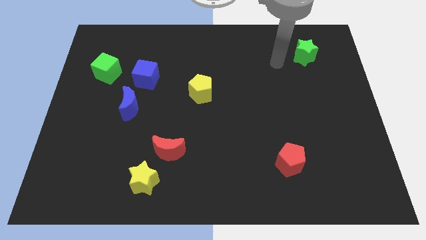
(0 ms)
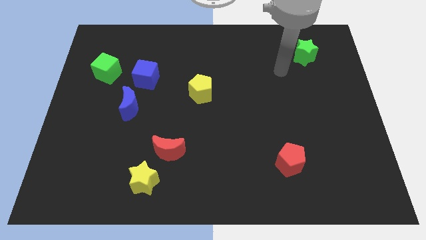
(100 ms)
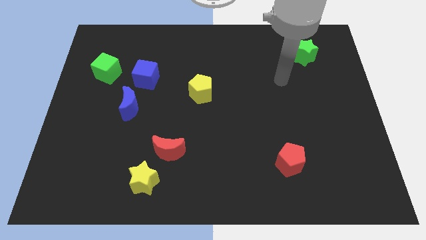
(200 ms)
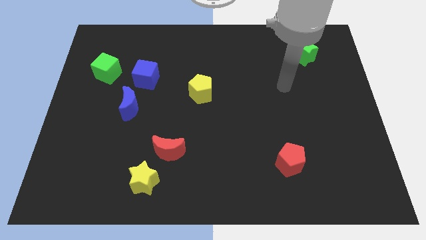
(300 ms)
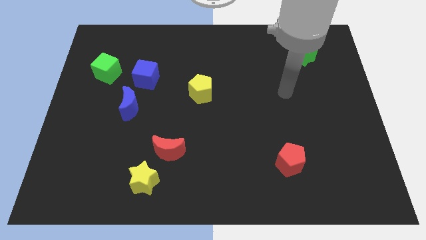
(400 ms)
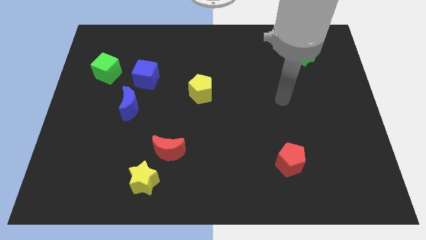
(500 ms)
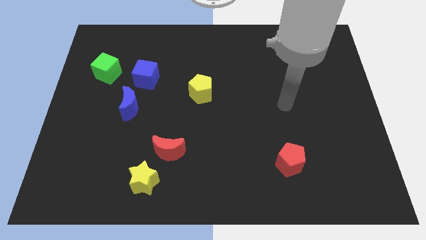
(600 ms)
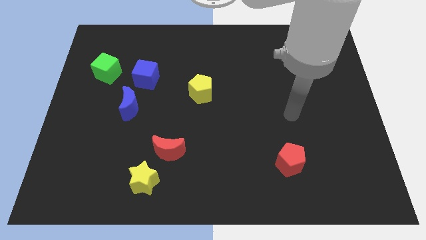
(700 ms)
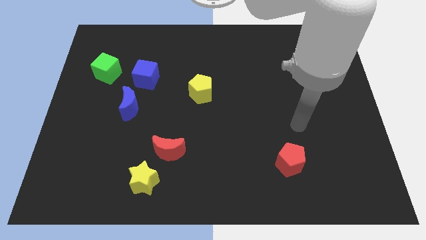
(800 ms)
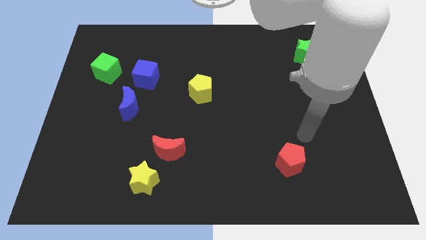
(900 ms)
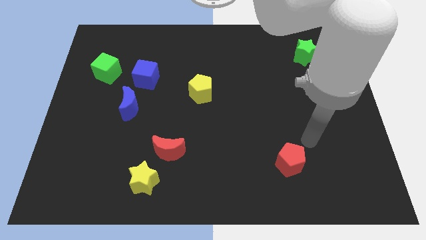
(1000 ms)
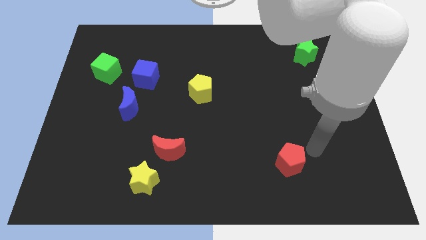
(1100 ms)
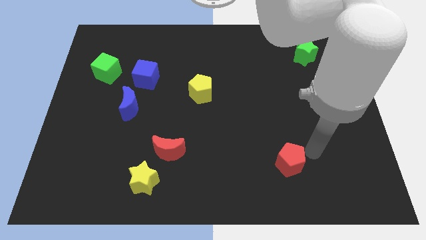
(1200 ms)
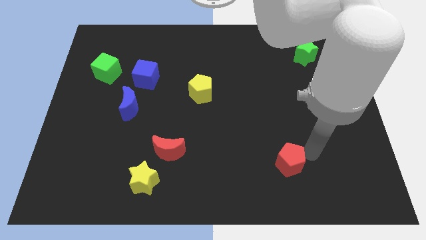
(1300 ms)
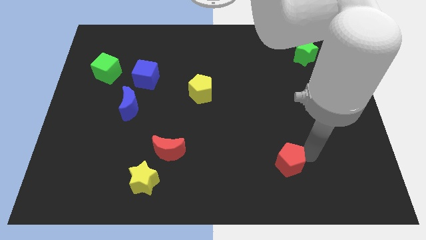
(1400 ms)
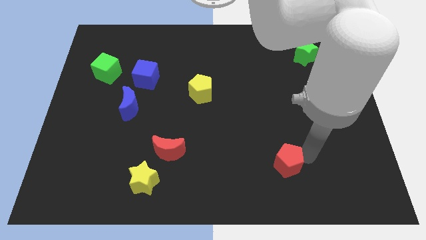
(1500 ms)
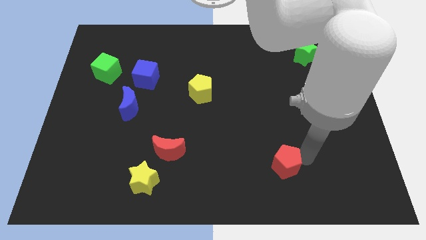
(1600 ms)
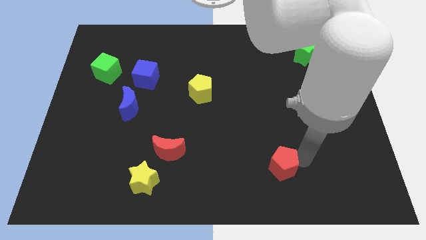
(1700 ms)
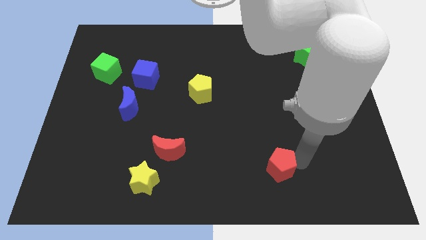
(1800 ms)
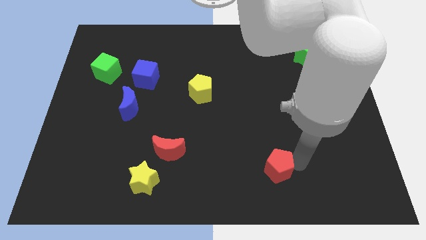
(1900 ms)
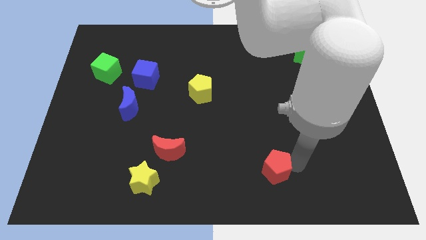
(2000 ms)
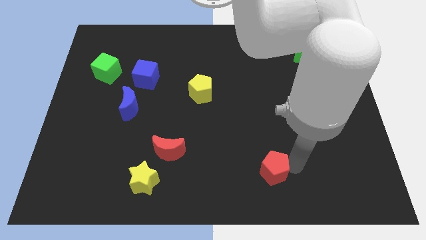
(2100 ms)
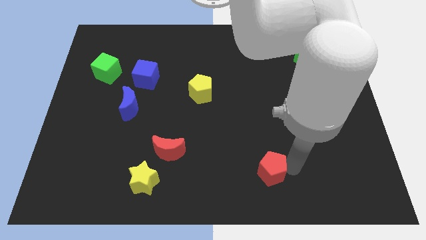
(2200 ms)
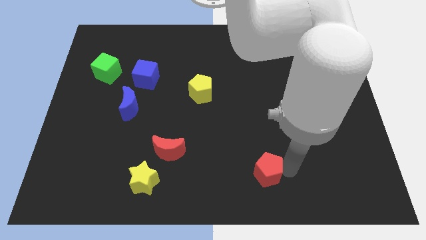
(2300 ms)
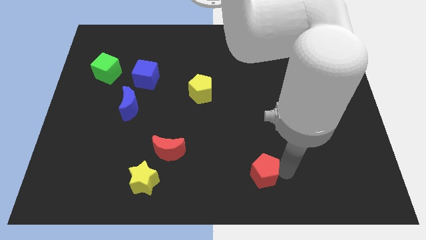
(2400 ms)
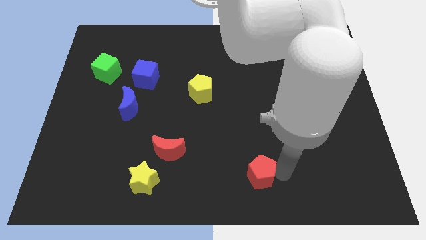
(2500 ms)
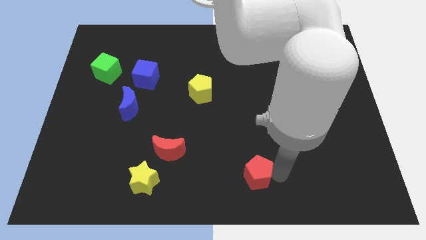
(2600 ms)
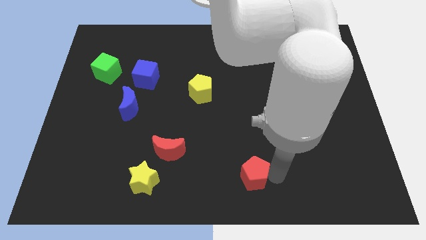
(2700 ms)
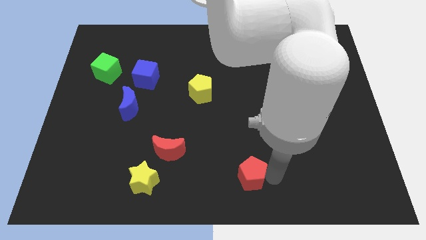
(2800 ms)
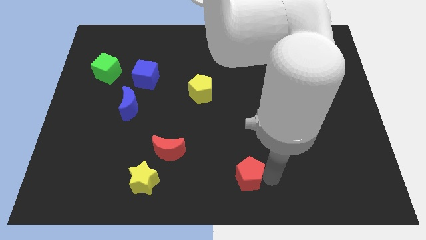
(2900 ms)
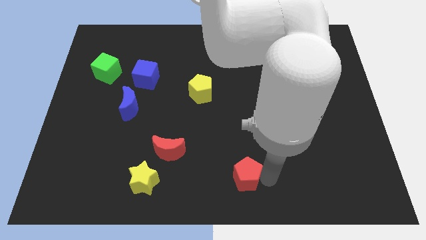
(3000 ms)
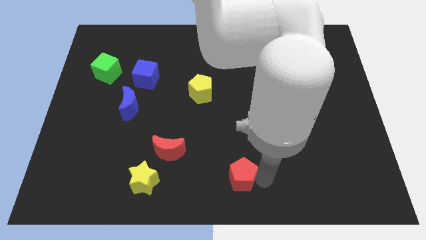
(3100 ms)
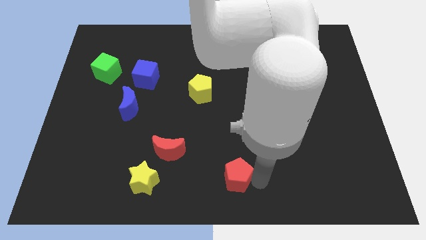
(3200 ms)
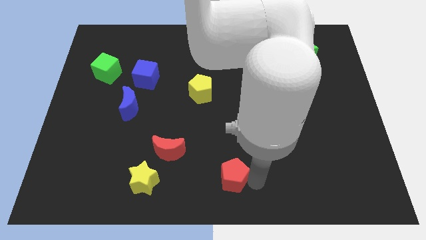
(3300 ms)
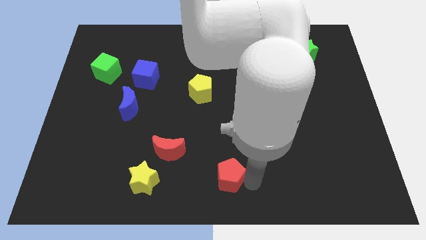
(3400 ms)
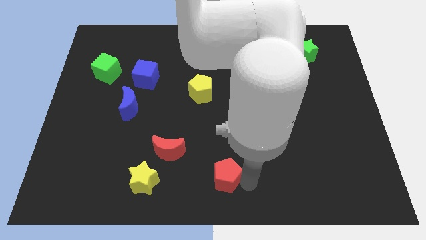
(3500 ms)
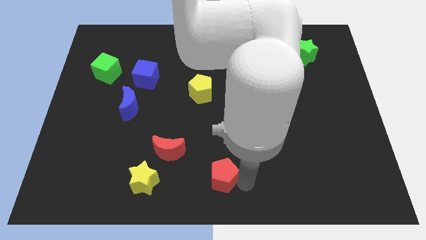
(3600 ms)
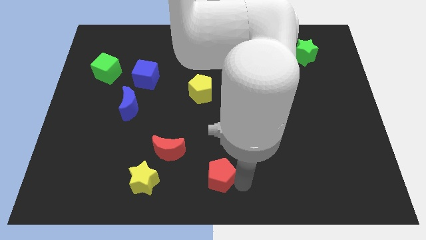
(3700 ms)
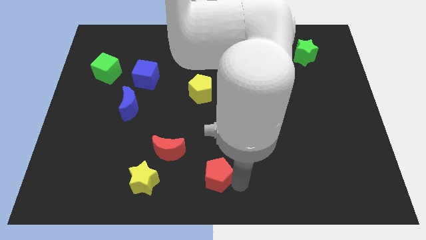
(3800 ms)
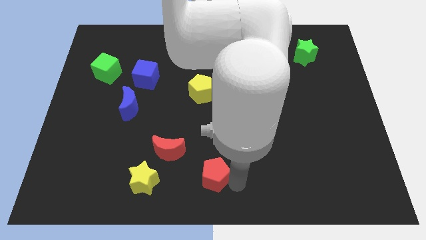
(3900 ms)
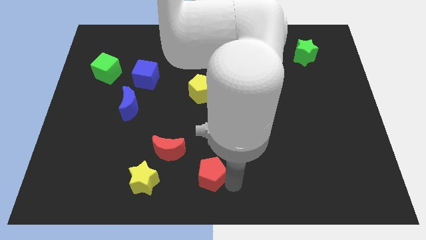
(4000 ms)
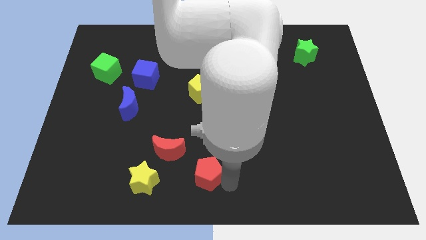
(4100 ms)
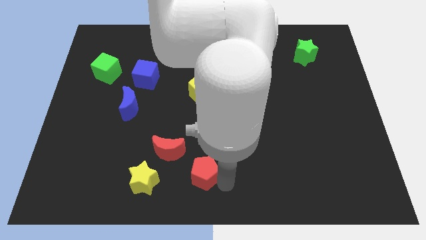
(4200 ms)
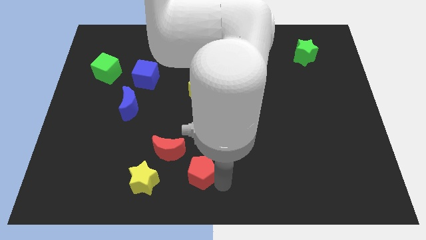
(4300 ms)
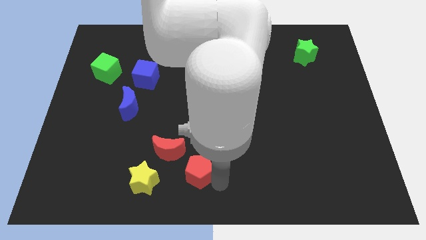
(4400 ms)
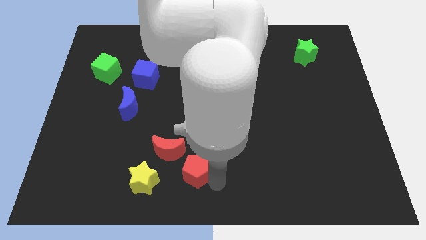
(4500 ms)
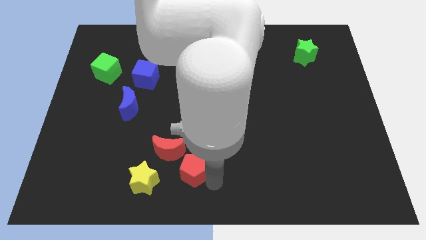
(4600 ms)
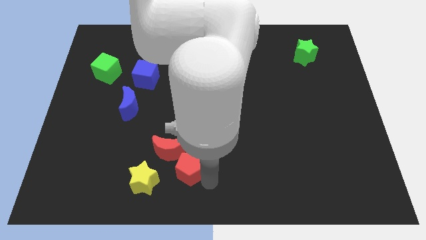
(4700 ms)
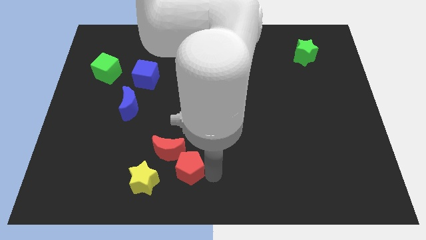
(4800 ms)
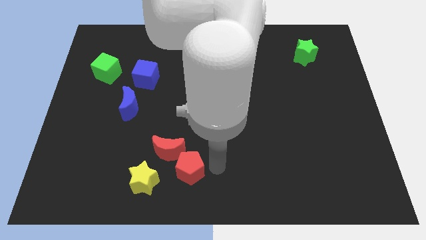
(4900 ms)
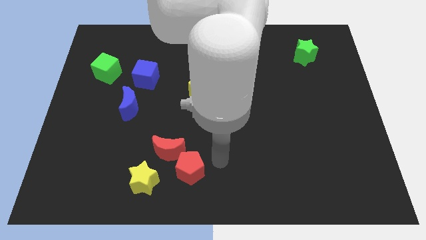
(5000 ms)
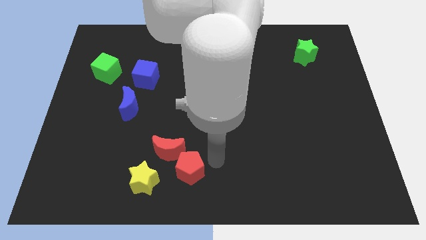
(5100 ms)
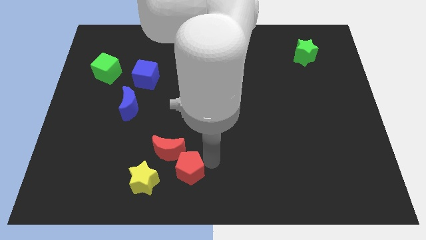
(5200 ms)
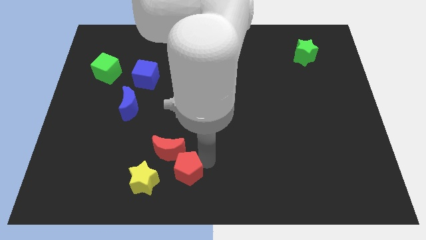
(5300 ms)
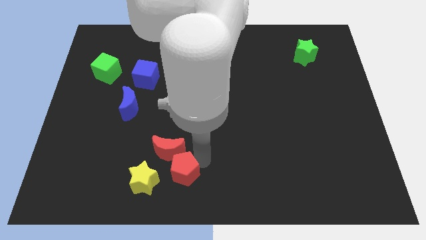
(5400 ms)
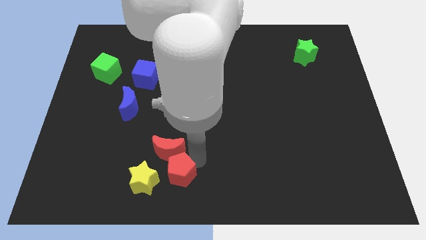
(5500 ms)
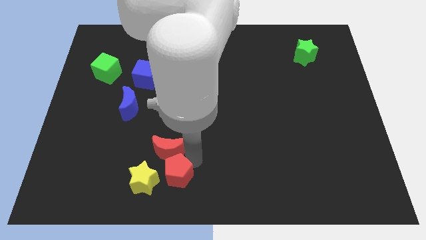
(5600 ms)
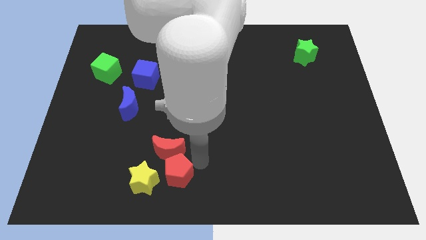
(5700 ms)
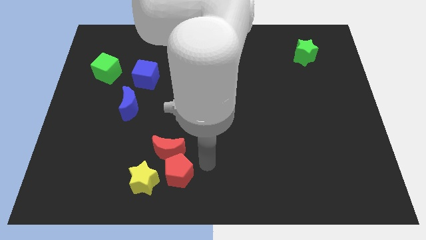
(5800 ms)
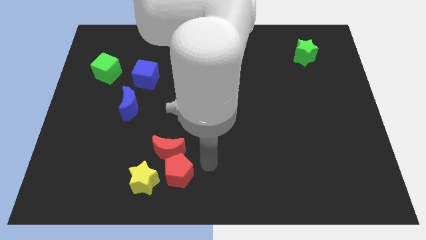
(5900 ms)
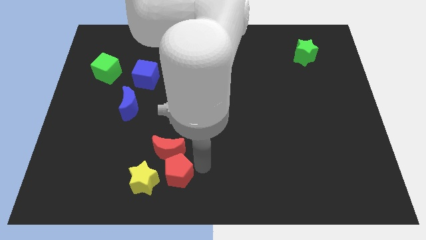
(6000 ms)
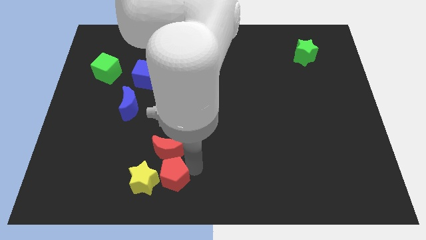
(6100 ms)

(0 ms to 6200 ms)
put the red pentagon close to the yellow star

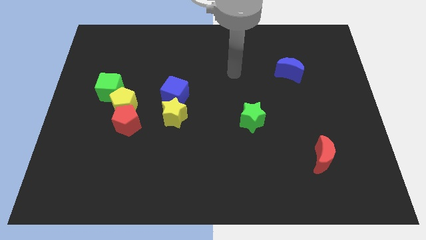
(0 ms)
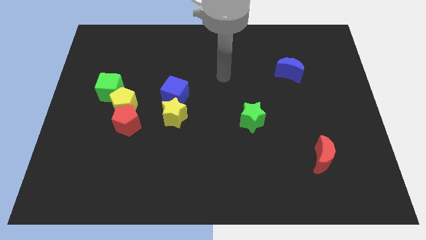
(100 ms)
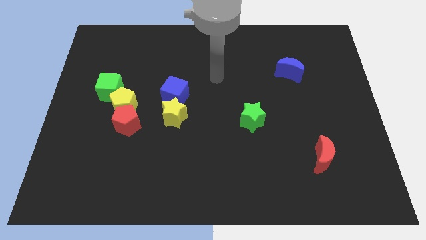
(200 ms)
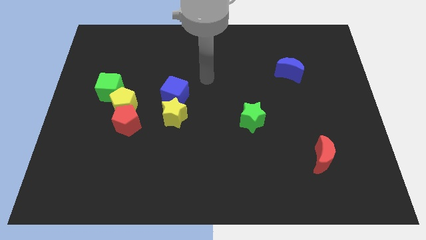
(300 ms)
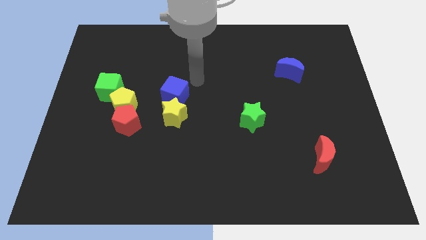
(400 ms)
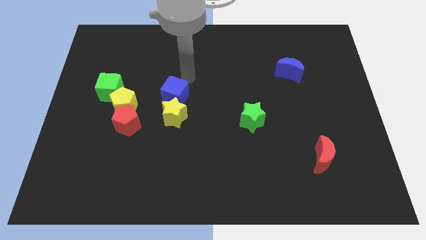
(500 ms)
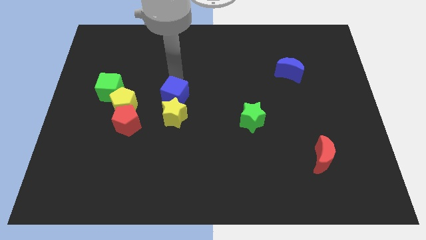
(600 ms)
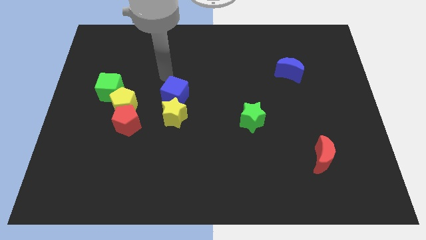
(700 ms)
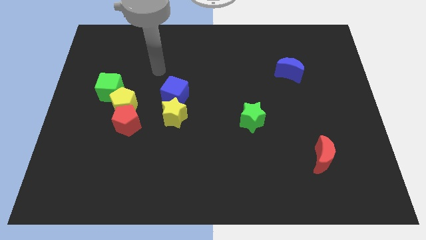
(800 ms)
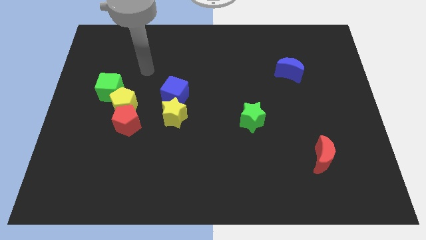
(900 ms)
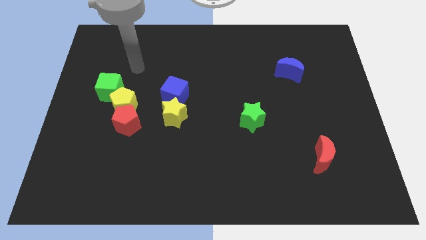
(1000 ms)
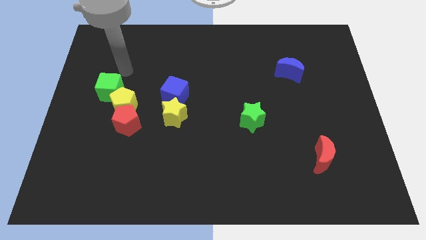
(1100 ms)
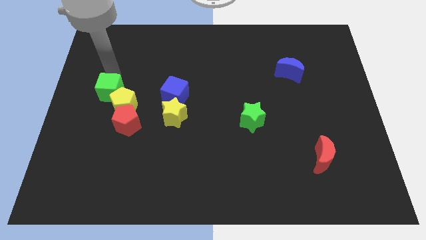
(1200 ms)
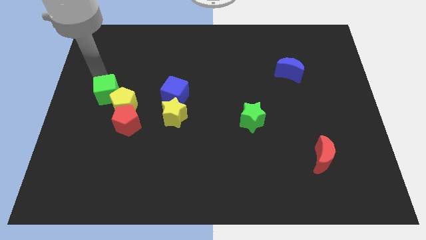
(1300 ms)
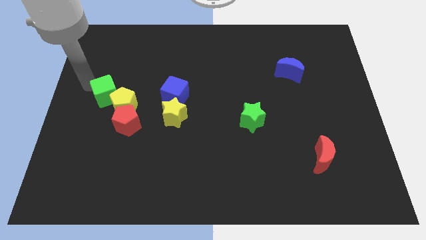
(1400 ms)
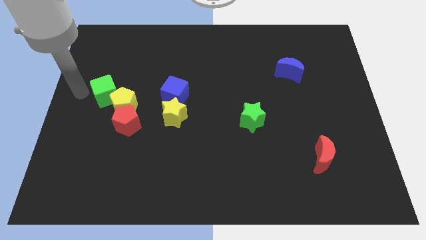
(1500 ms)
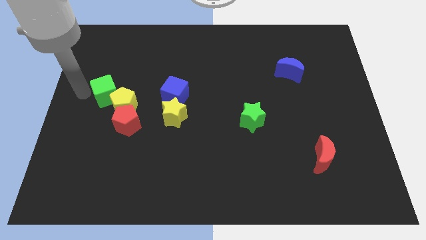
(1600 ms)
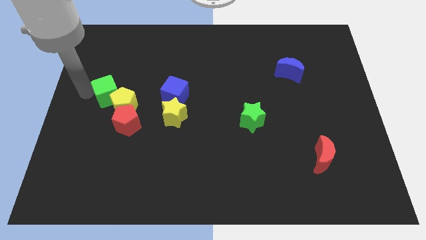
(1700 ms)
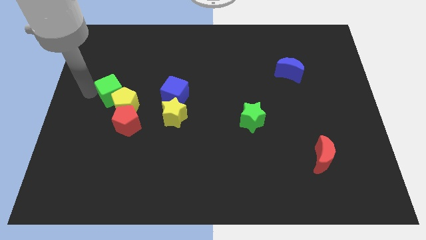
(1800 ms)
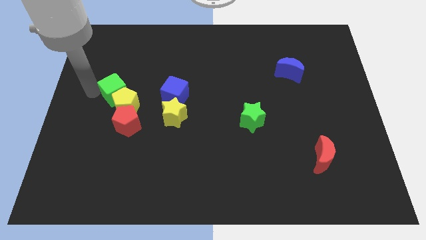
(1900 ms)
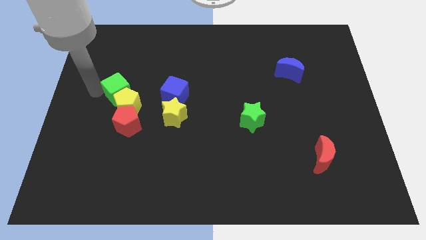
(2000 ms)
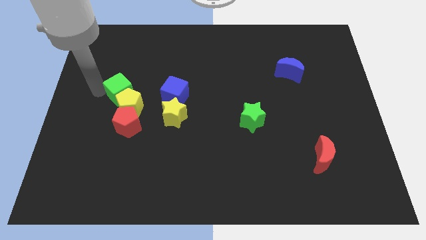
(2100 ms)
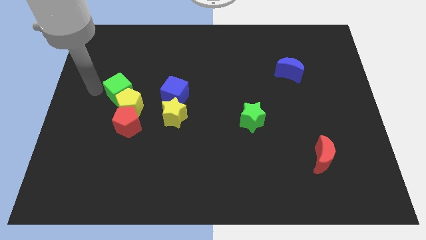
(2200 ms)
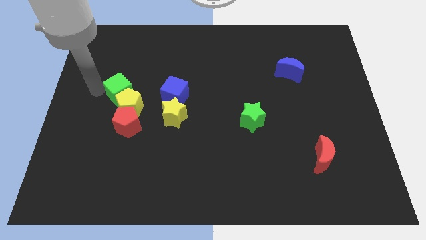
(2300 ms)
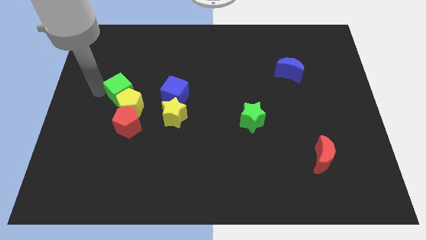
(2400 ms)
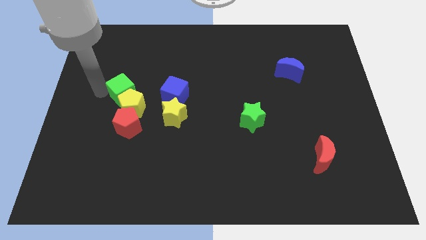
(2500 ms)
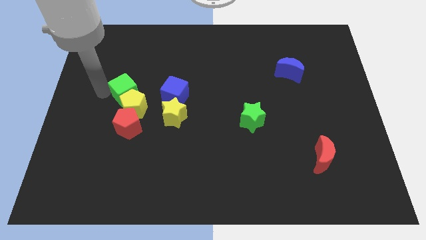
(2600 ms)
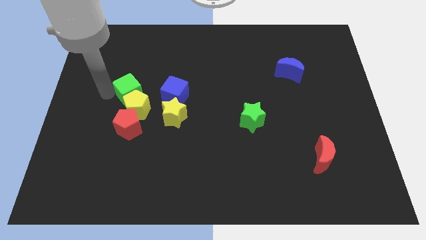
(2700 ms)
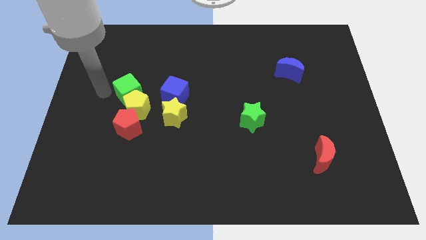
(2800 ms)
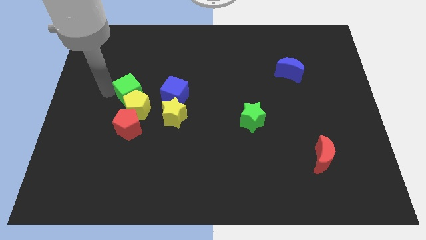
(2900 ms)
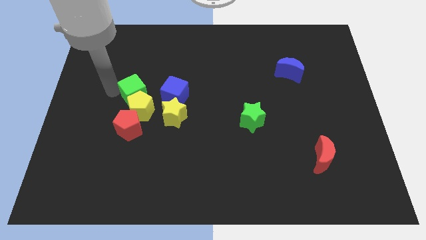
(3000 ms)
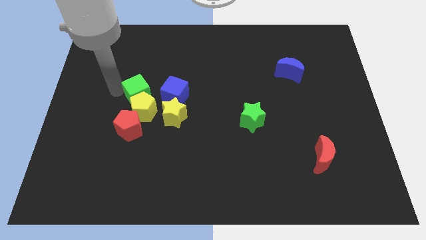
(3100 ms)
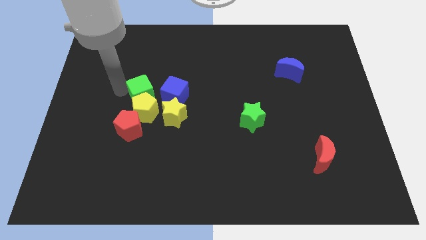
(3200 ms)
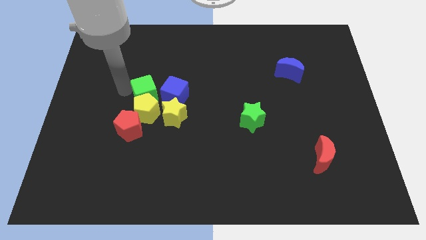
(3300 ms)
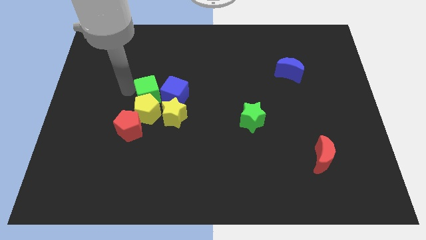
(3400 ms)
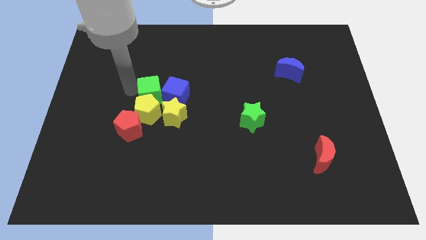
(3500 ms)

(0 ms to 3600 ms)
slide the green cube towards the blue cube
